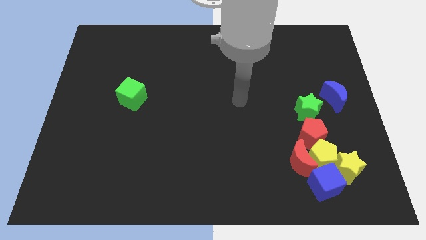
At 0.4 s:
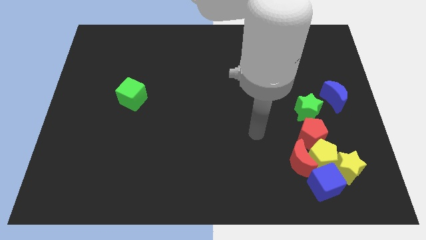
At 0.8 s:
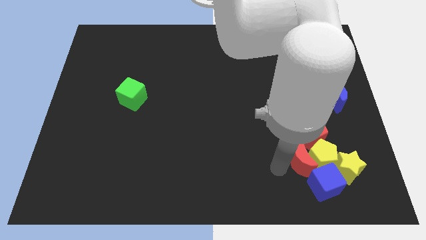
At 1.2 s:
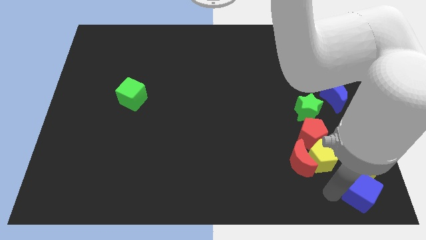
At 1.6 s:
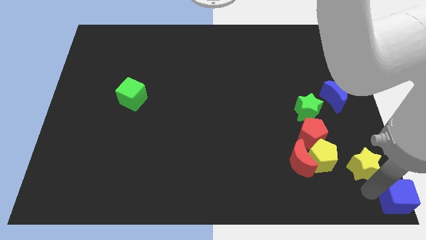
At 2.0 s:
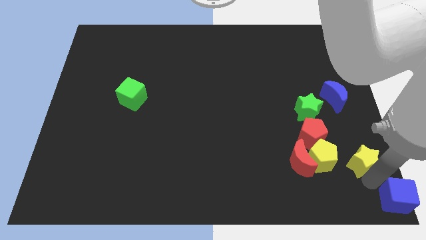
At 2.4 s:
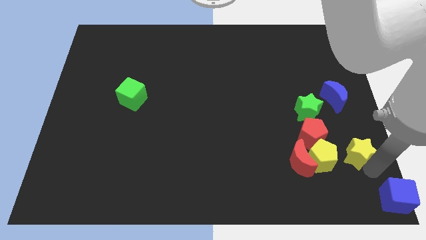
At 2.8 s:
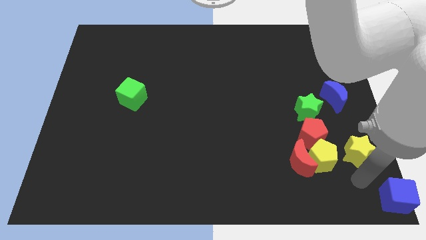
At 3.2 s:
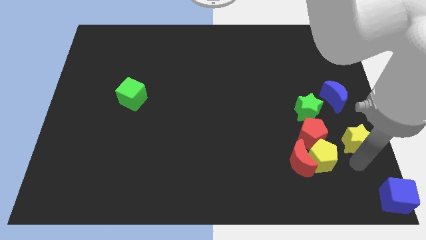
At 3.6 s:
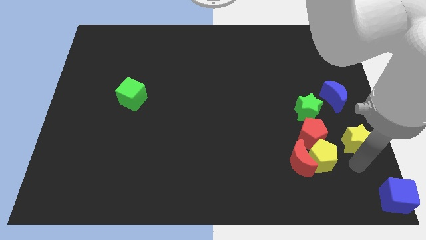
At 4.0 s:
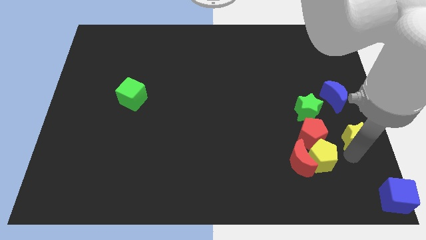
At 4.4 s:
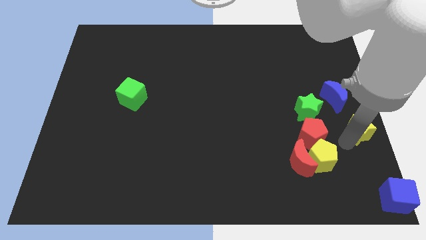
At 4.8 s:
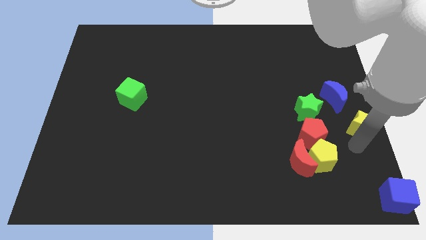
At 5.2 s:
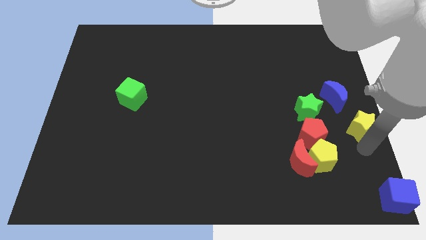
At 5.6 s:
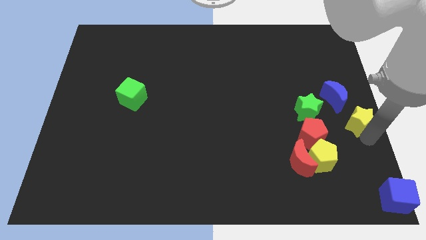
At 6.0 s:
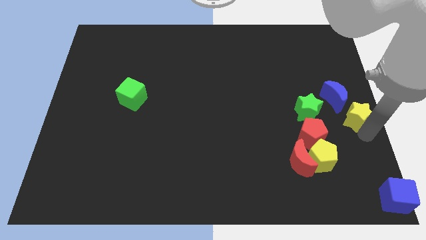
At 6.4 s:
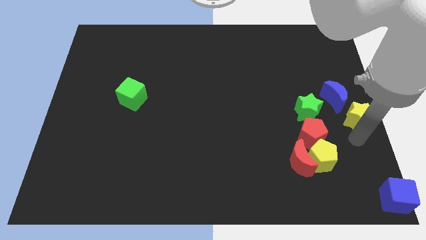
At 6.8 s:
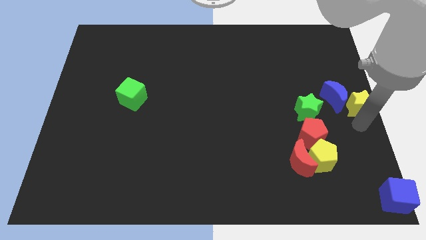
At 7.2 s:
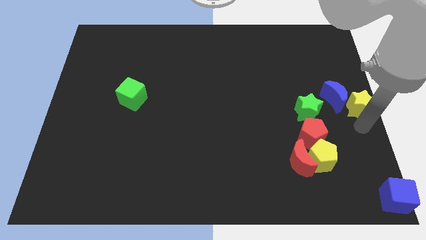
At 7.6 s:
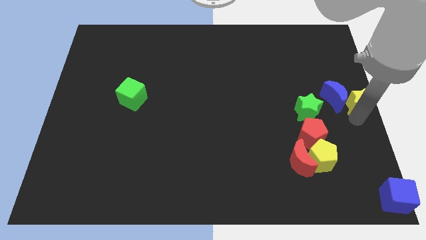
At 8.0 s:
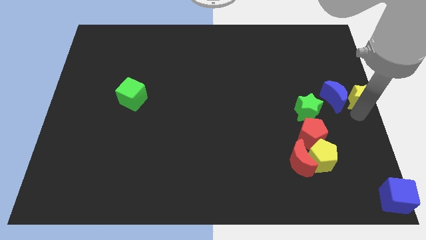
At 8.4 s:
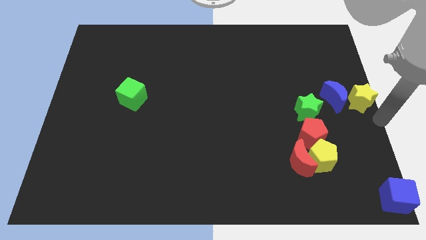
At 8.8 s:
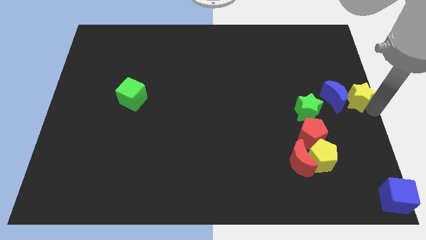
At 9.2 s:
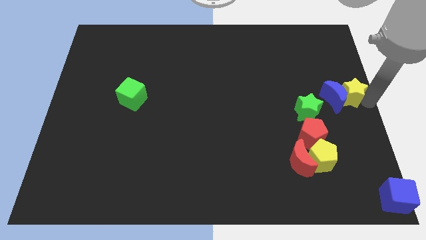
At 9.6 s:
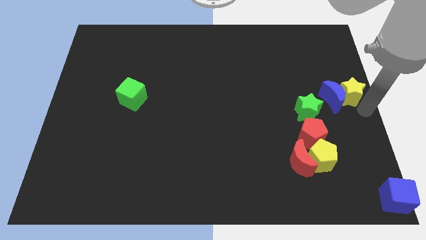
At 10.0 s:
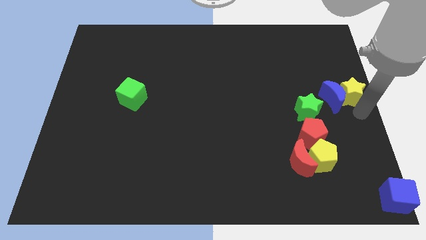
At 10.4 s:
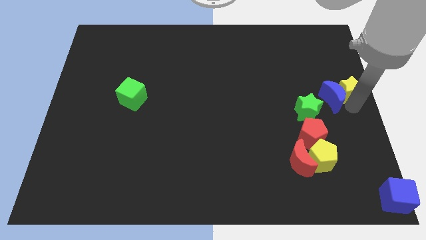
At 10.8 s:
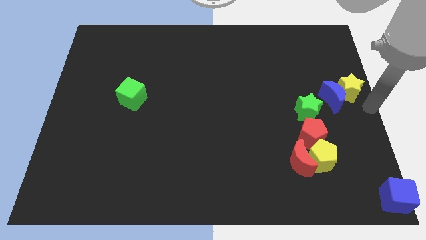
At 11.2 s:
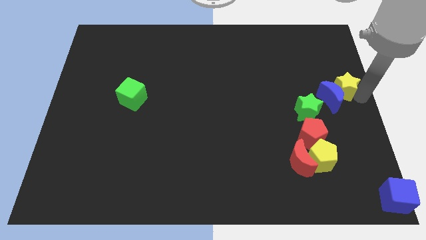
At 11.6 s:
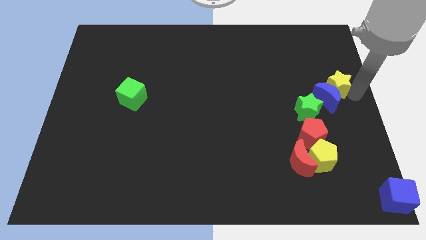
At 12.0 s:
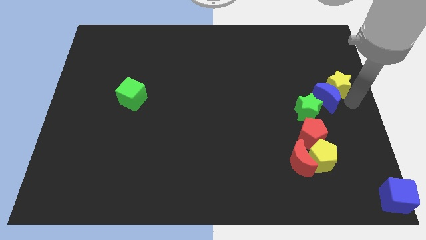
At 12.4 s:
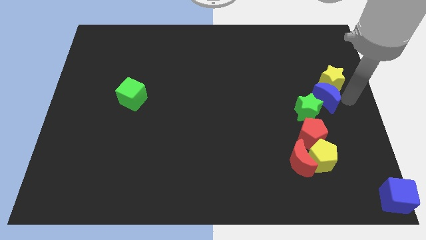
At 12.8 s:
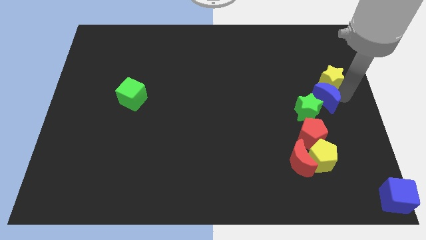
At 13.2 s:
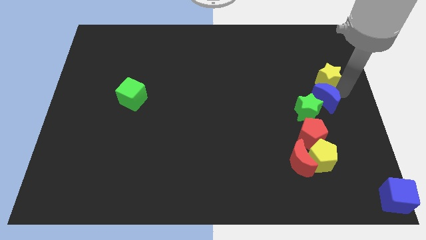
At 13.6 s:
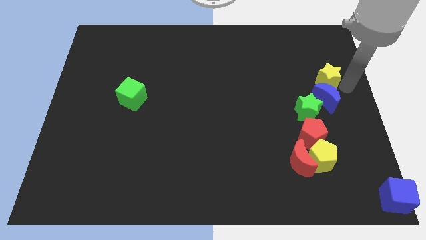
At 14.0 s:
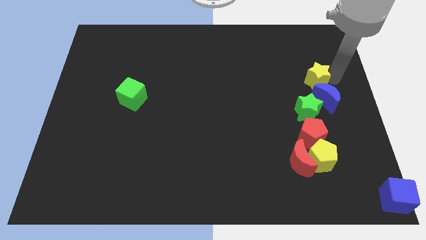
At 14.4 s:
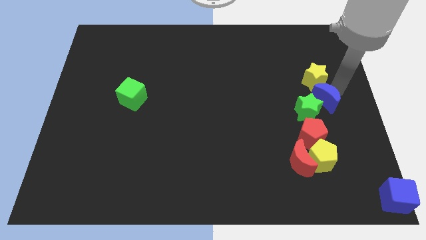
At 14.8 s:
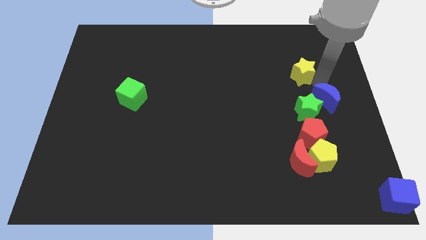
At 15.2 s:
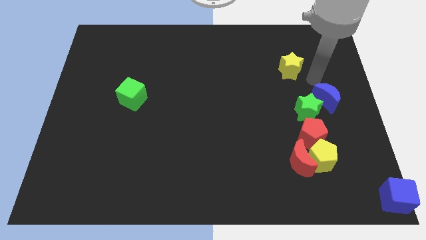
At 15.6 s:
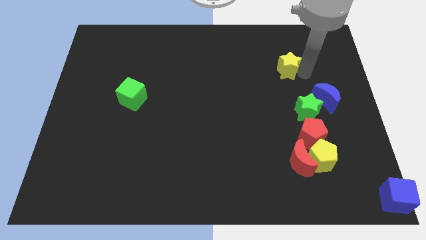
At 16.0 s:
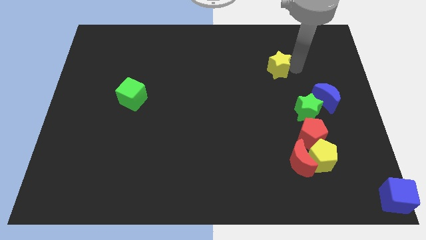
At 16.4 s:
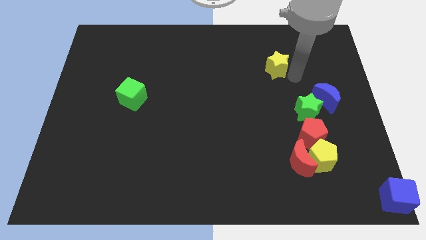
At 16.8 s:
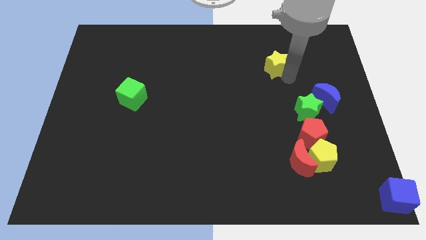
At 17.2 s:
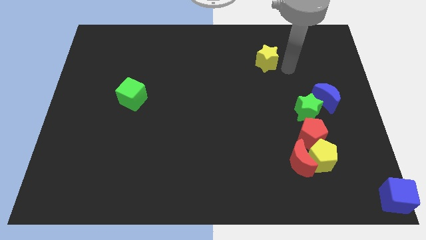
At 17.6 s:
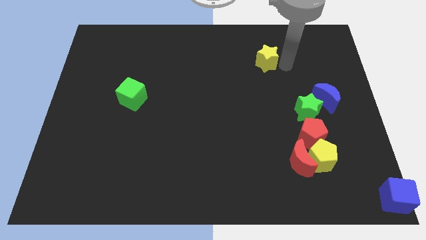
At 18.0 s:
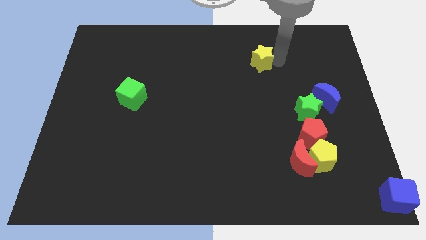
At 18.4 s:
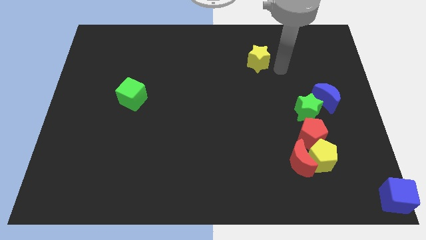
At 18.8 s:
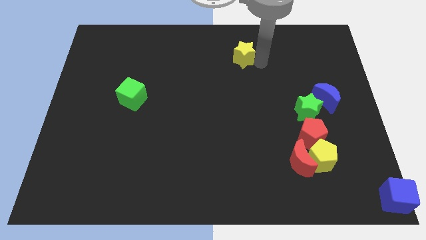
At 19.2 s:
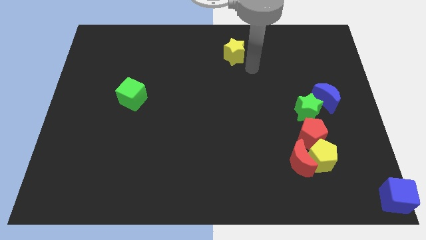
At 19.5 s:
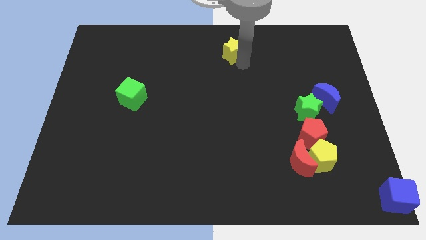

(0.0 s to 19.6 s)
put the yellow star to the top side

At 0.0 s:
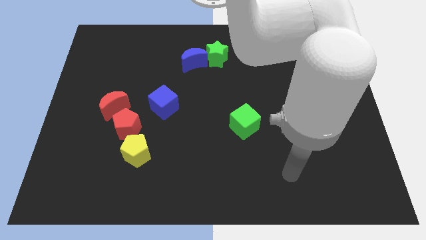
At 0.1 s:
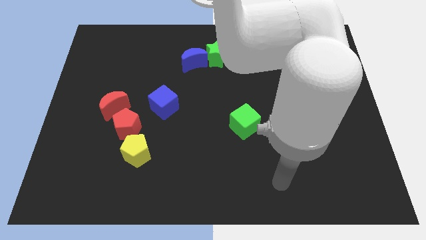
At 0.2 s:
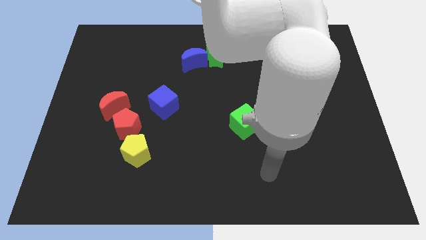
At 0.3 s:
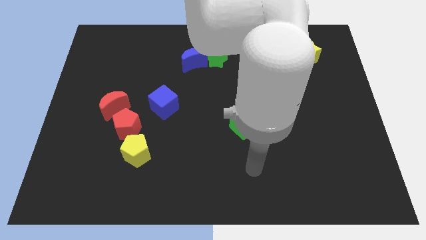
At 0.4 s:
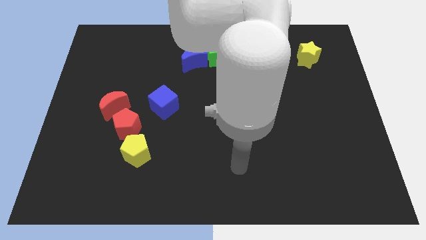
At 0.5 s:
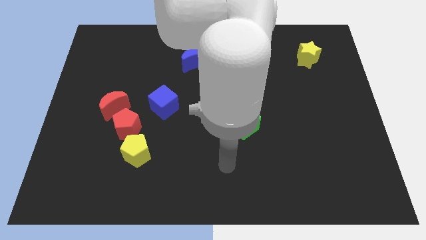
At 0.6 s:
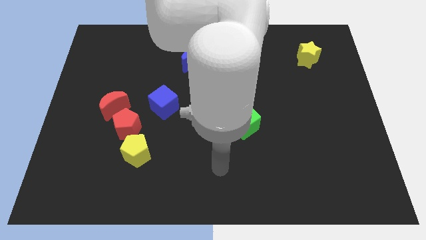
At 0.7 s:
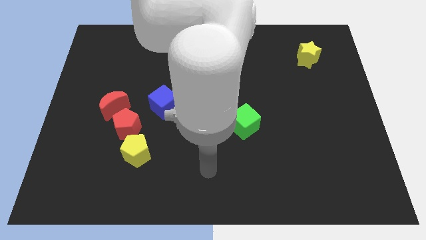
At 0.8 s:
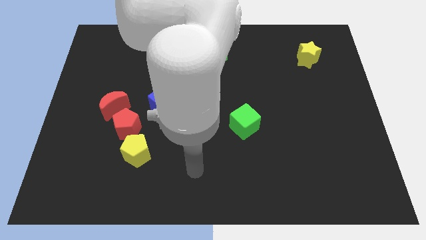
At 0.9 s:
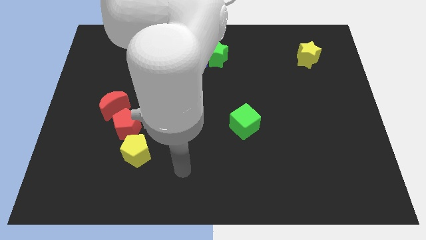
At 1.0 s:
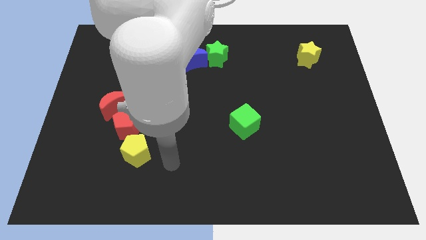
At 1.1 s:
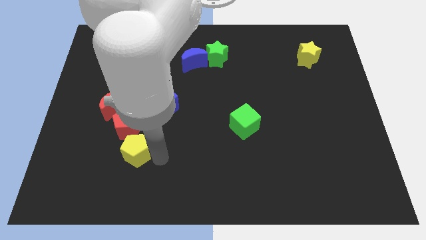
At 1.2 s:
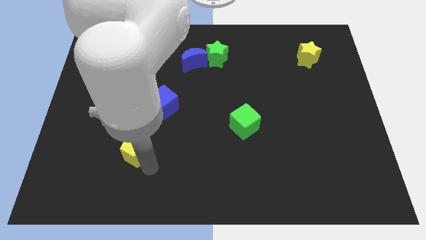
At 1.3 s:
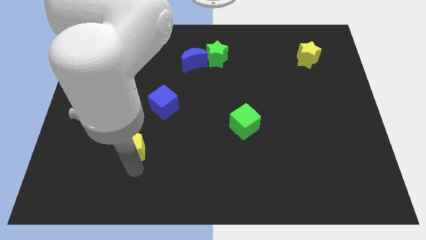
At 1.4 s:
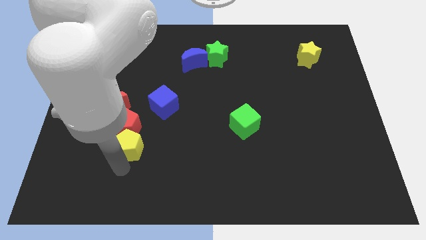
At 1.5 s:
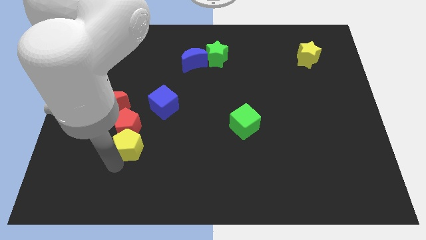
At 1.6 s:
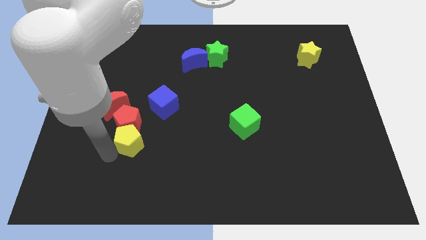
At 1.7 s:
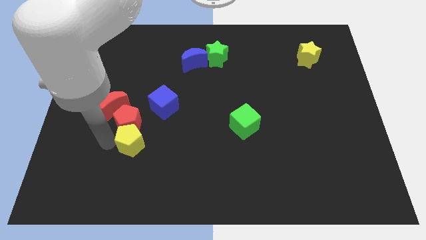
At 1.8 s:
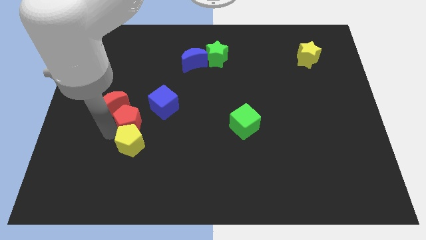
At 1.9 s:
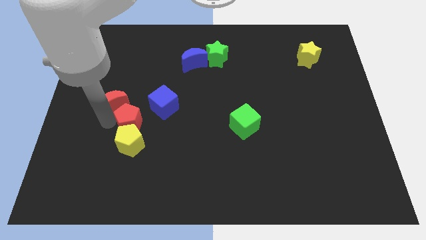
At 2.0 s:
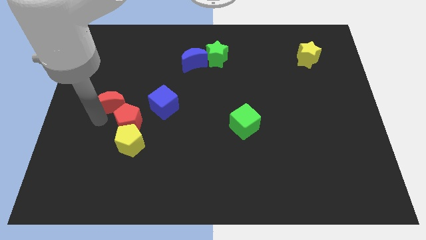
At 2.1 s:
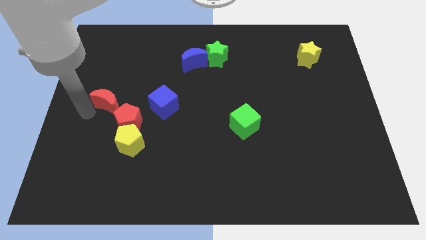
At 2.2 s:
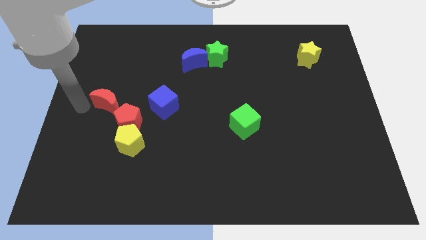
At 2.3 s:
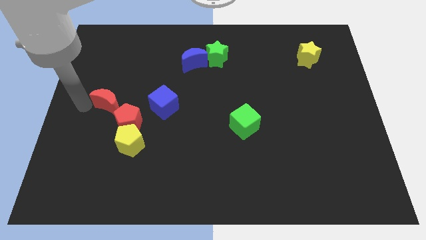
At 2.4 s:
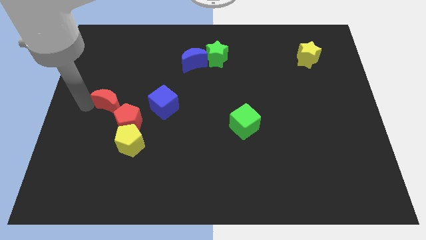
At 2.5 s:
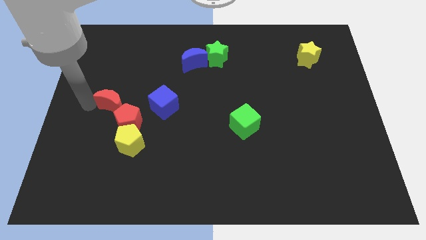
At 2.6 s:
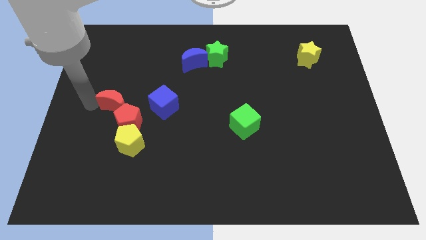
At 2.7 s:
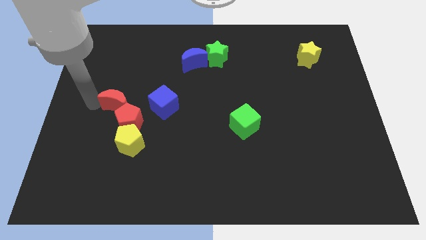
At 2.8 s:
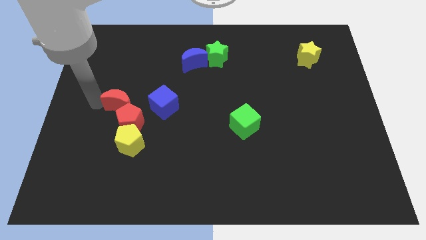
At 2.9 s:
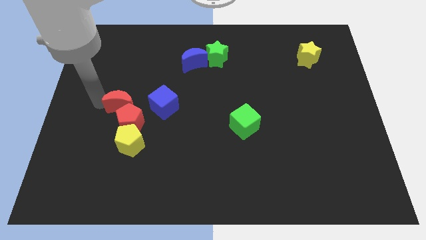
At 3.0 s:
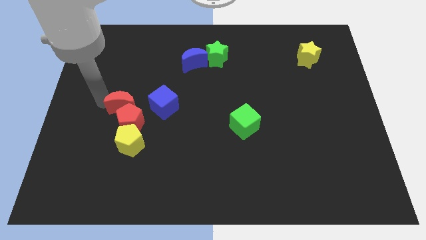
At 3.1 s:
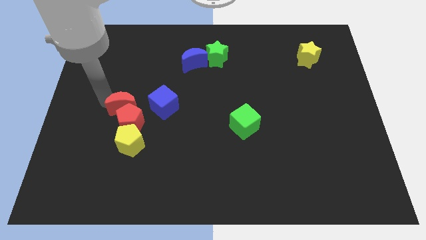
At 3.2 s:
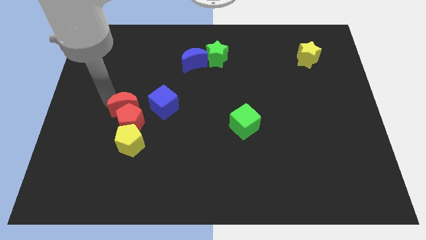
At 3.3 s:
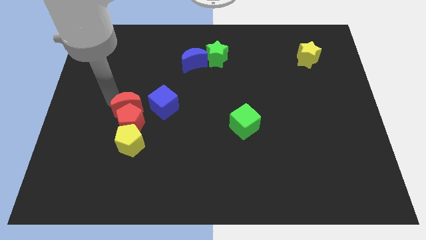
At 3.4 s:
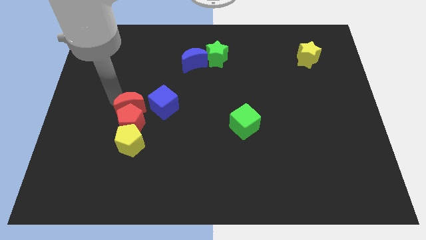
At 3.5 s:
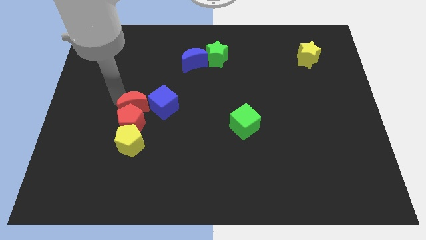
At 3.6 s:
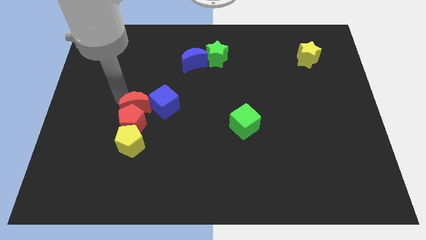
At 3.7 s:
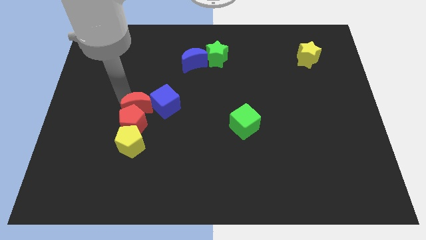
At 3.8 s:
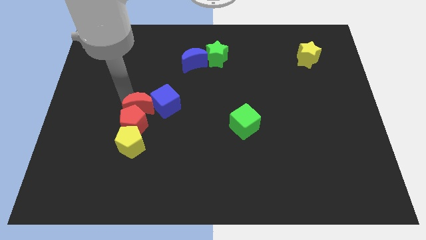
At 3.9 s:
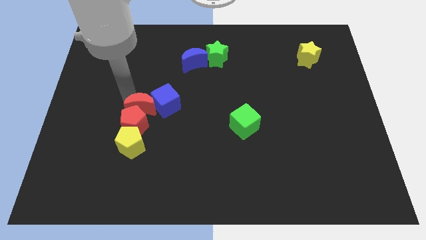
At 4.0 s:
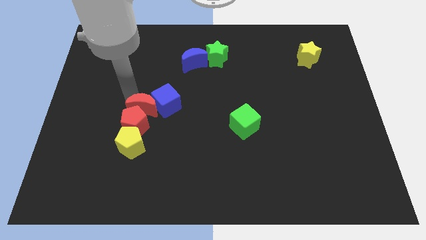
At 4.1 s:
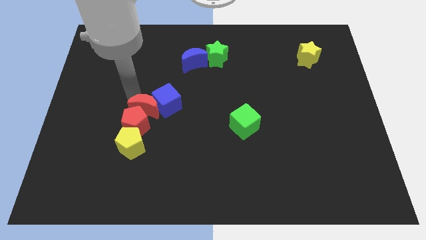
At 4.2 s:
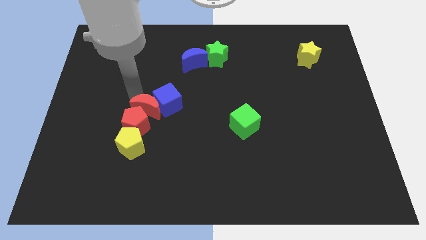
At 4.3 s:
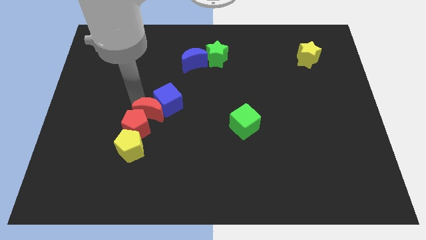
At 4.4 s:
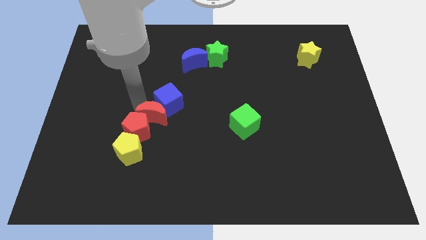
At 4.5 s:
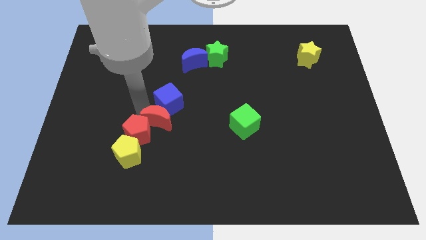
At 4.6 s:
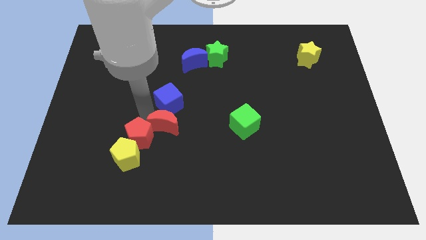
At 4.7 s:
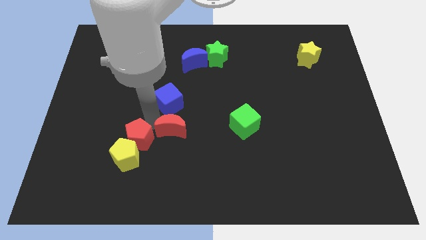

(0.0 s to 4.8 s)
put the red moon to the middle of the board
